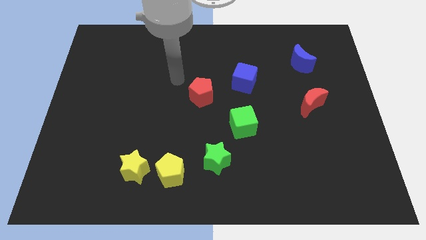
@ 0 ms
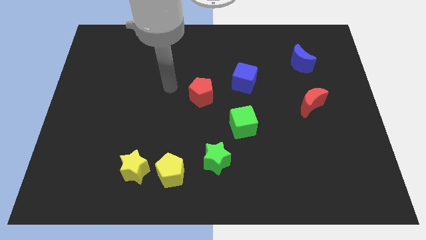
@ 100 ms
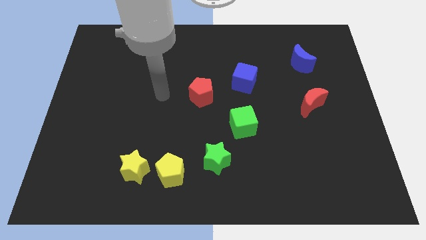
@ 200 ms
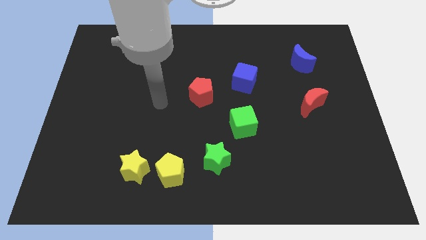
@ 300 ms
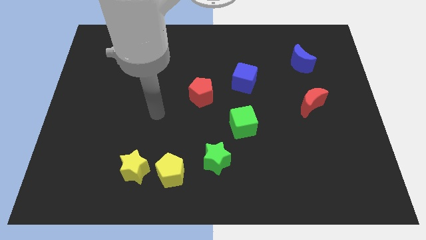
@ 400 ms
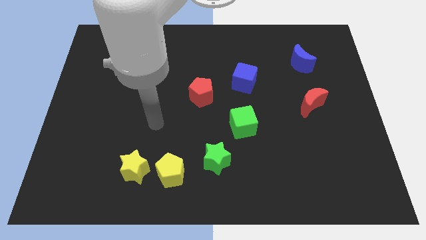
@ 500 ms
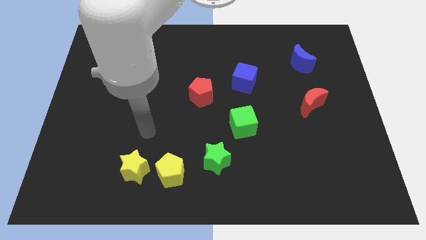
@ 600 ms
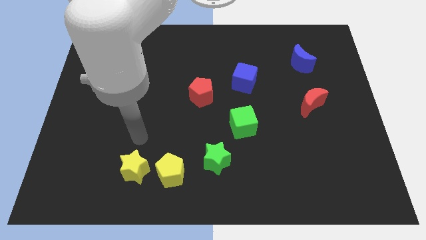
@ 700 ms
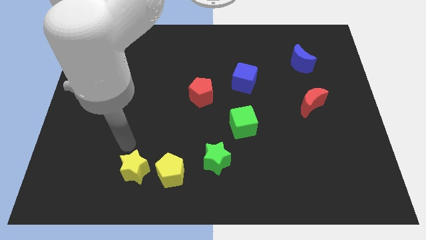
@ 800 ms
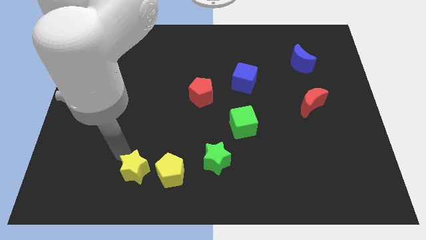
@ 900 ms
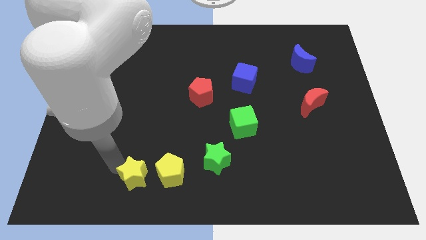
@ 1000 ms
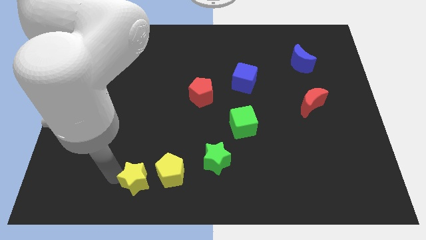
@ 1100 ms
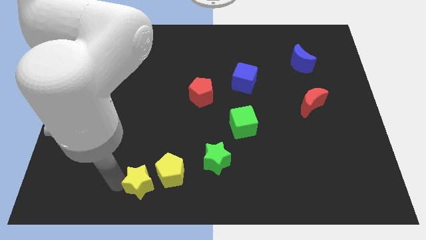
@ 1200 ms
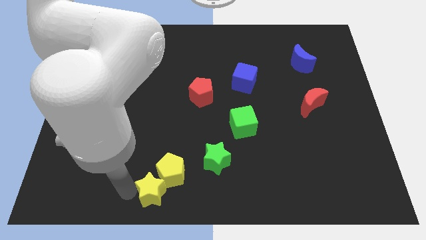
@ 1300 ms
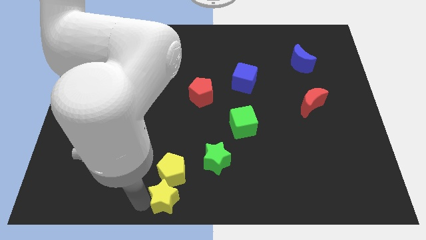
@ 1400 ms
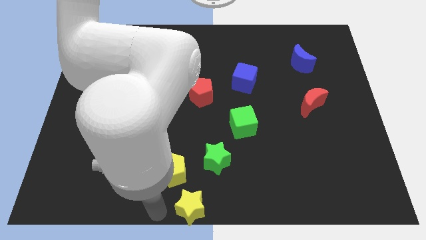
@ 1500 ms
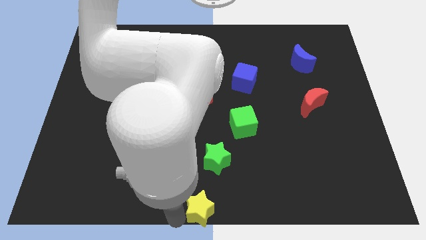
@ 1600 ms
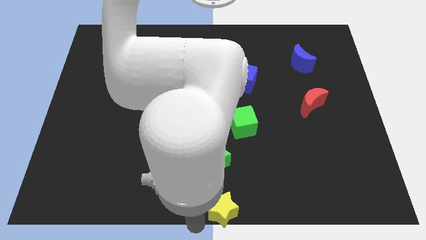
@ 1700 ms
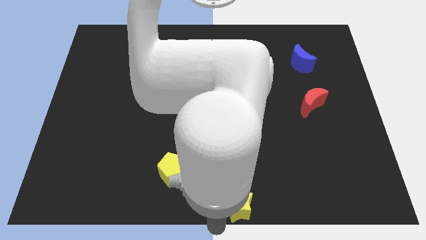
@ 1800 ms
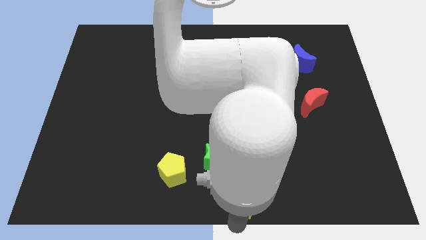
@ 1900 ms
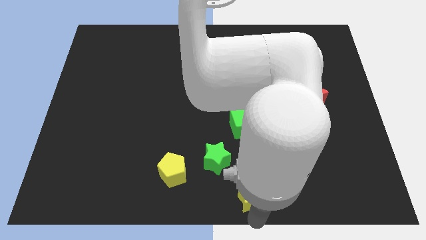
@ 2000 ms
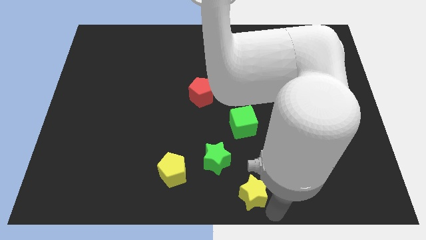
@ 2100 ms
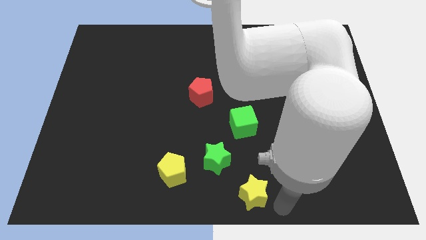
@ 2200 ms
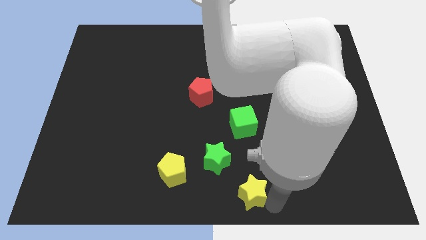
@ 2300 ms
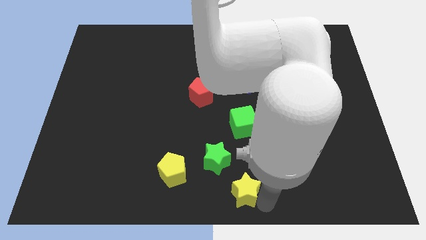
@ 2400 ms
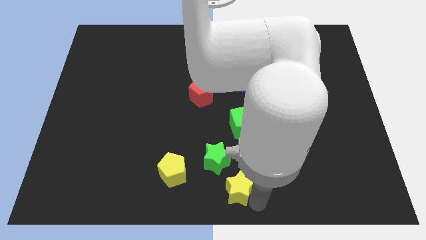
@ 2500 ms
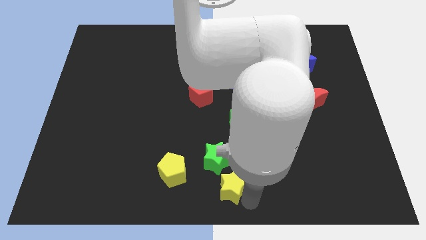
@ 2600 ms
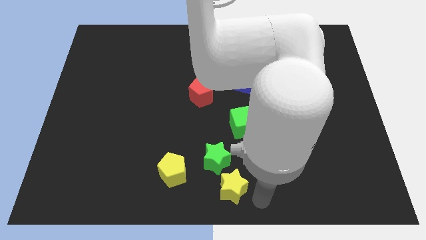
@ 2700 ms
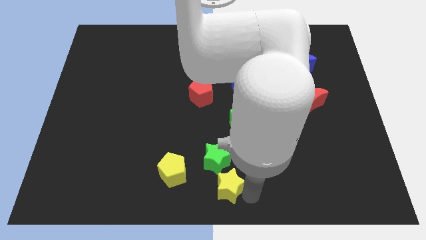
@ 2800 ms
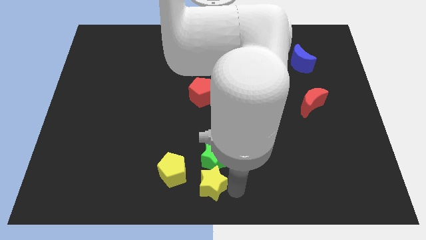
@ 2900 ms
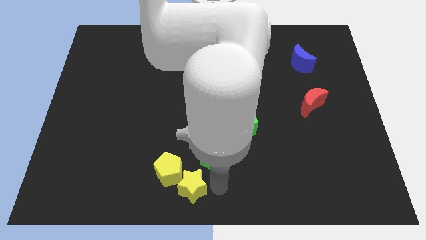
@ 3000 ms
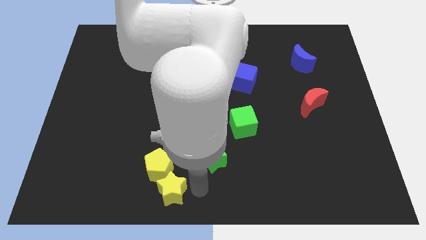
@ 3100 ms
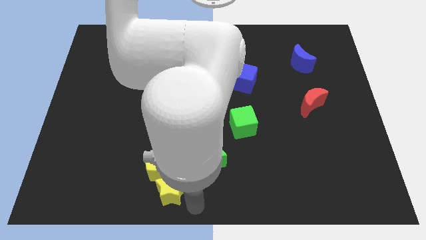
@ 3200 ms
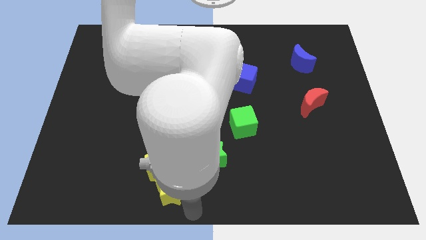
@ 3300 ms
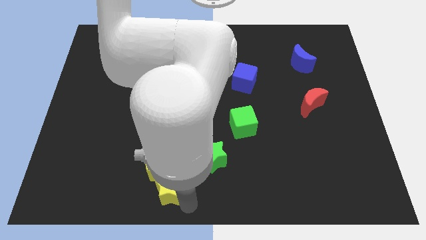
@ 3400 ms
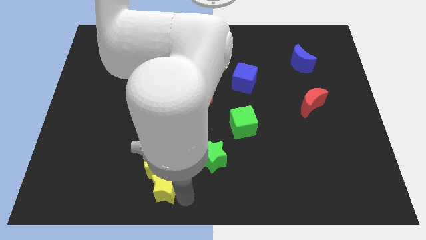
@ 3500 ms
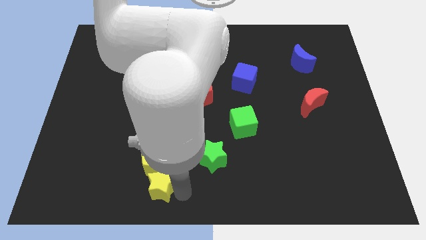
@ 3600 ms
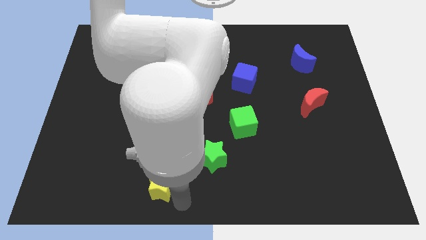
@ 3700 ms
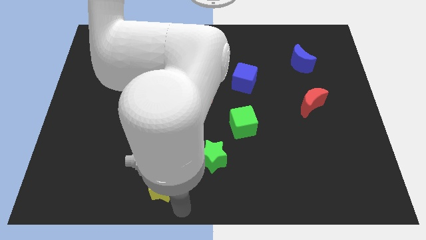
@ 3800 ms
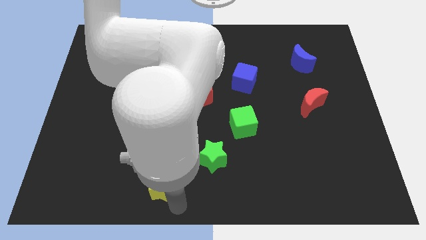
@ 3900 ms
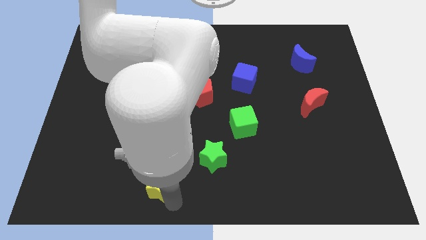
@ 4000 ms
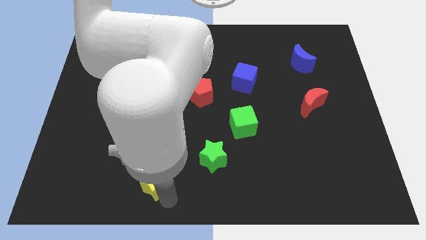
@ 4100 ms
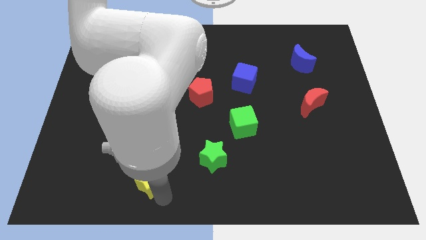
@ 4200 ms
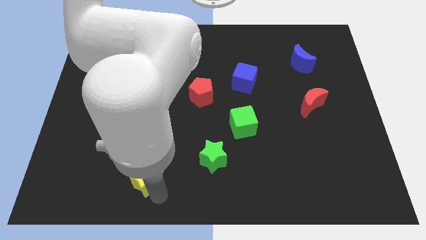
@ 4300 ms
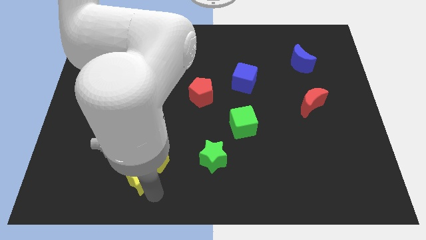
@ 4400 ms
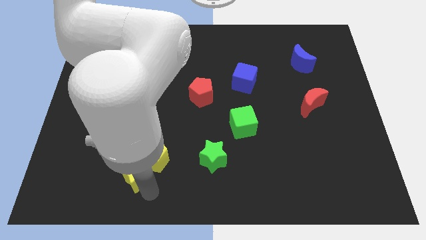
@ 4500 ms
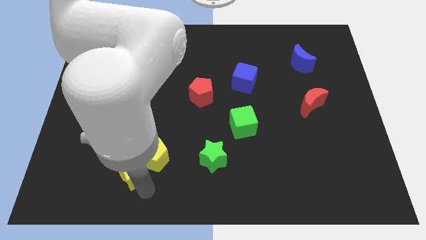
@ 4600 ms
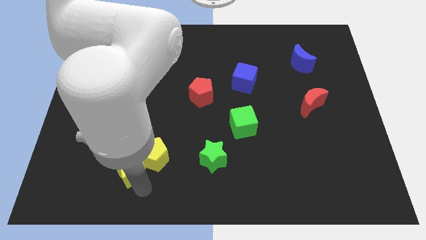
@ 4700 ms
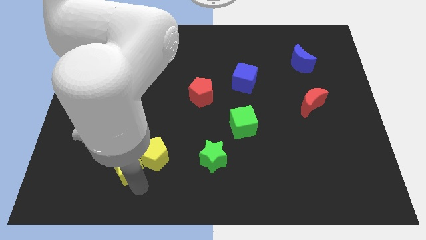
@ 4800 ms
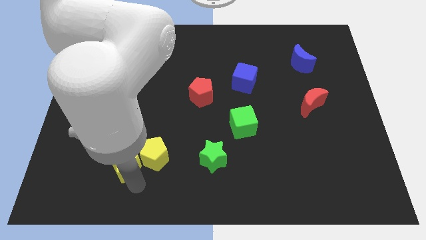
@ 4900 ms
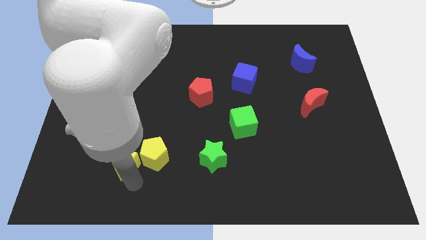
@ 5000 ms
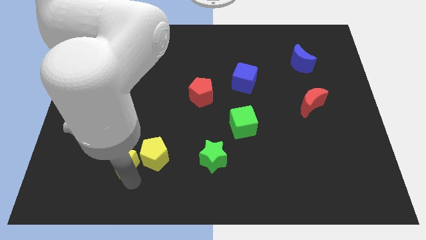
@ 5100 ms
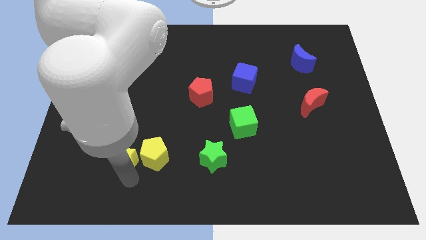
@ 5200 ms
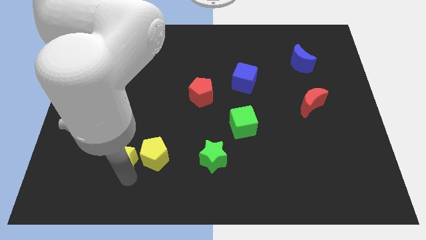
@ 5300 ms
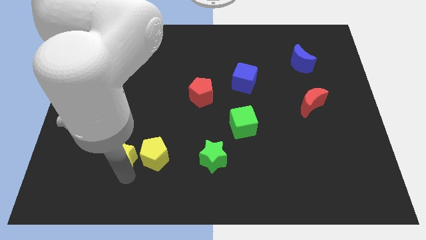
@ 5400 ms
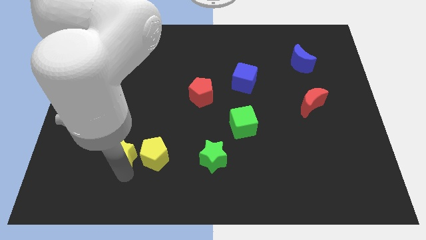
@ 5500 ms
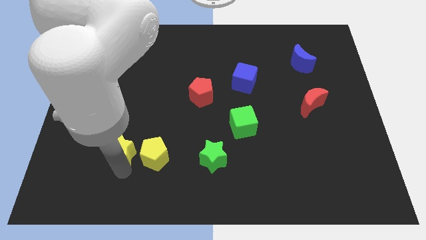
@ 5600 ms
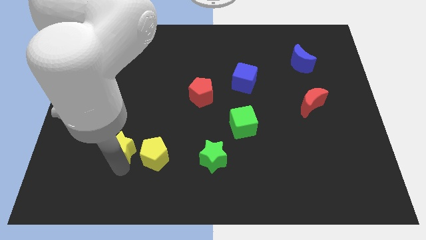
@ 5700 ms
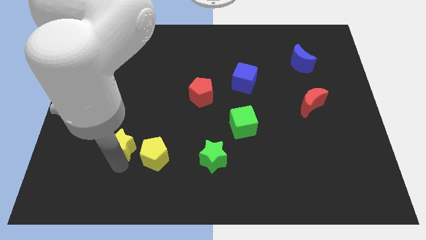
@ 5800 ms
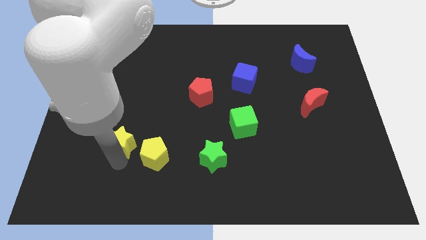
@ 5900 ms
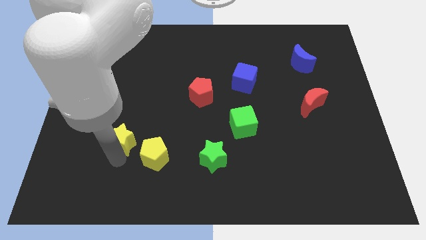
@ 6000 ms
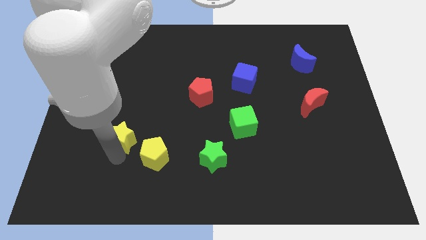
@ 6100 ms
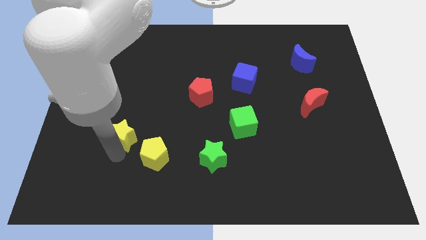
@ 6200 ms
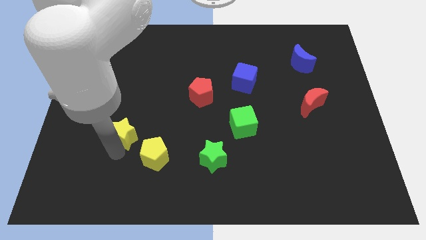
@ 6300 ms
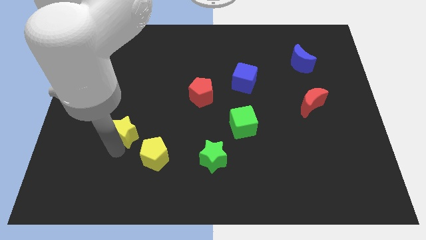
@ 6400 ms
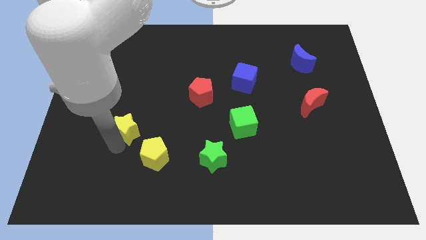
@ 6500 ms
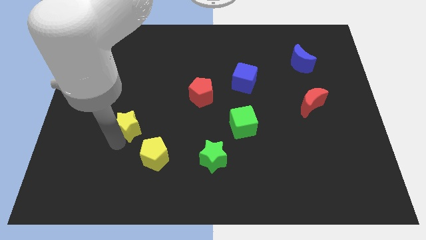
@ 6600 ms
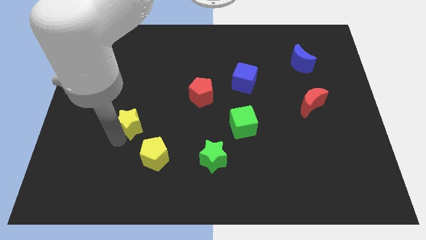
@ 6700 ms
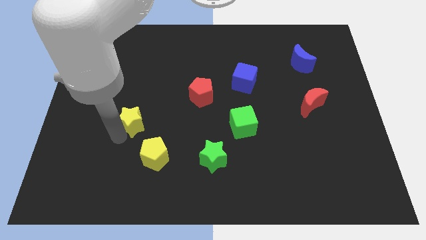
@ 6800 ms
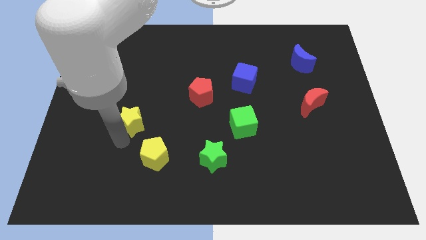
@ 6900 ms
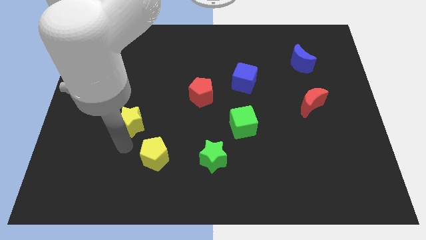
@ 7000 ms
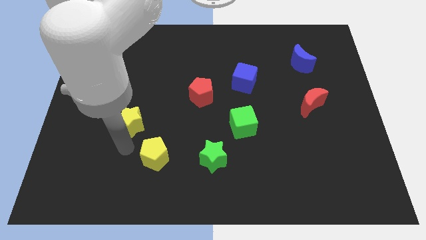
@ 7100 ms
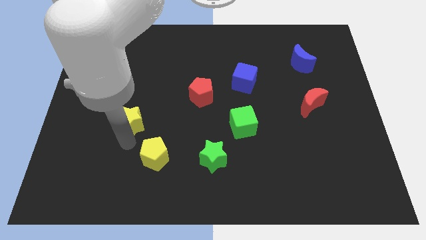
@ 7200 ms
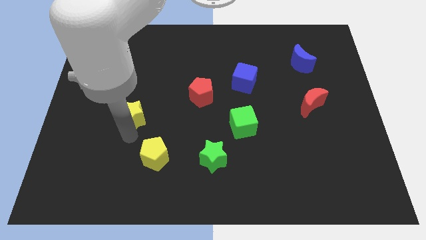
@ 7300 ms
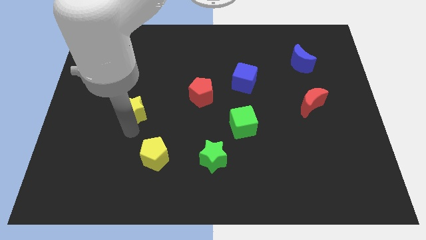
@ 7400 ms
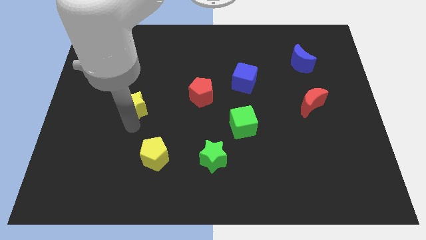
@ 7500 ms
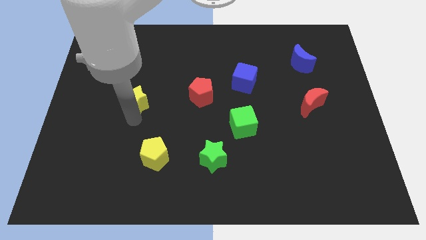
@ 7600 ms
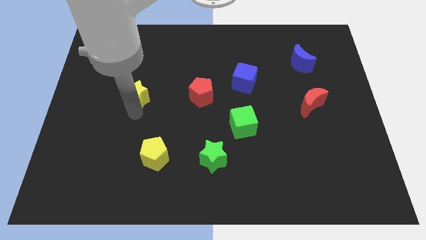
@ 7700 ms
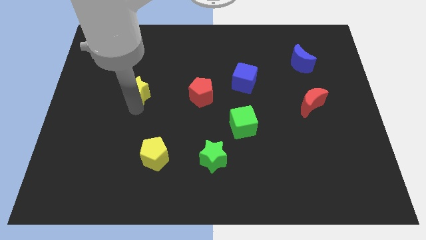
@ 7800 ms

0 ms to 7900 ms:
push the yellow star upwards

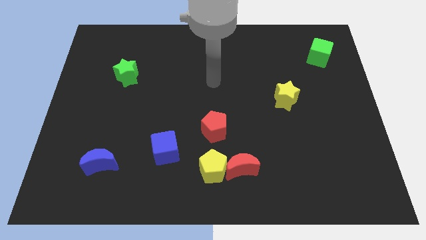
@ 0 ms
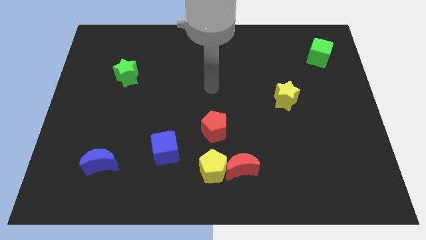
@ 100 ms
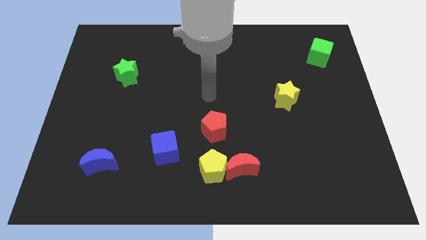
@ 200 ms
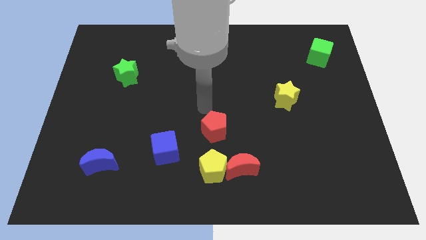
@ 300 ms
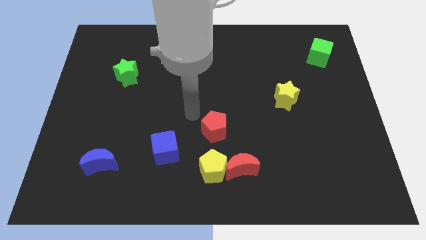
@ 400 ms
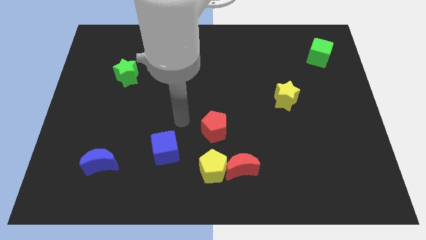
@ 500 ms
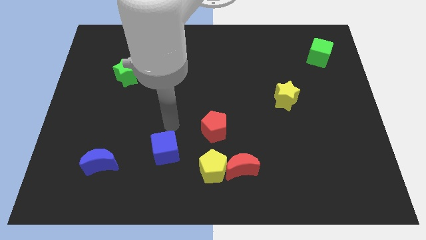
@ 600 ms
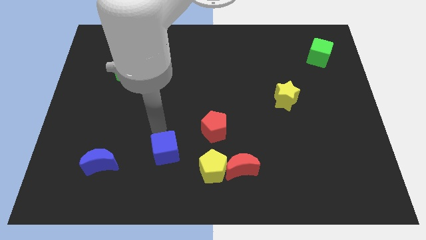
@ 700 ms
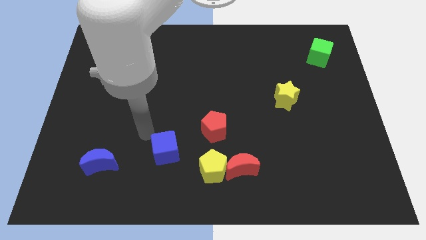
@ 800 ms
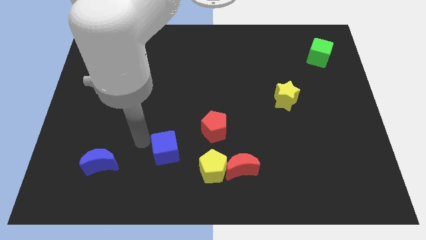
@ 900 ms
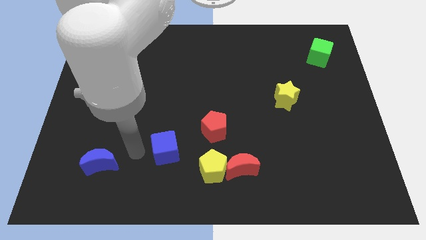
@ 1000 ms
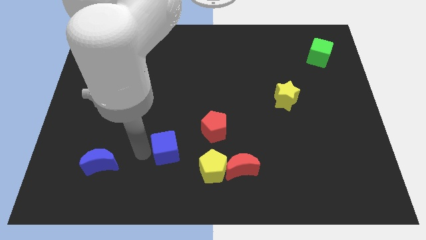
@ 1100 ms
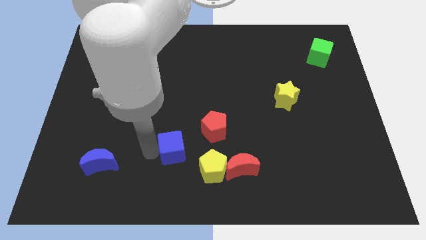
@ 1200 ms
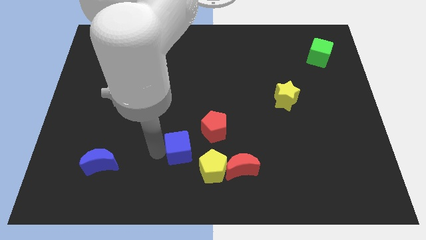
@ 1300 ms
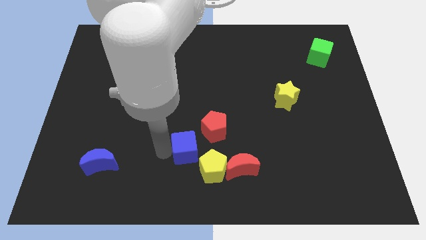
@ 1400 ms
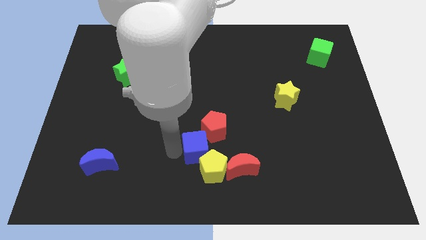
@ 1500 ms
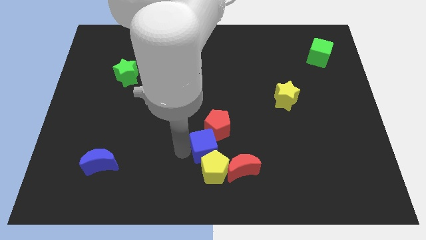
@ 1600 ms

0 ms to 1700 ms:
slightly move the blue cube right
